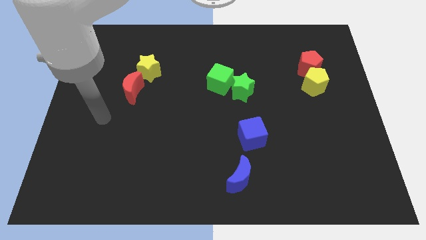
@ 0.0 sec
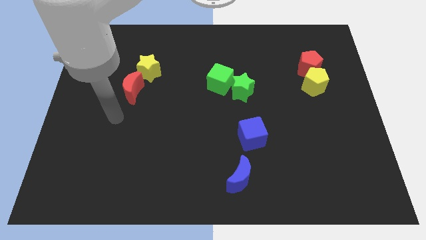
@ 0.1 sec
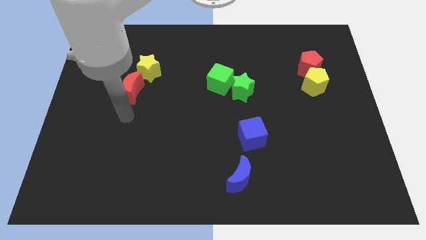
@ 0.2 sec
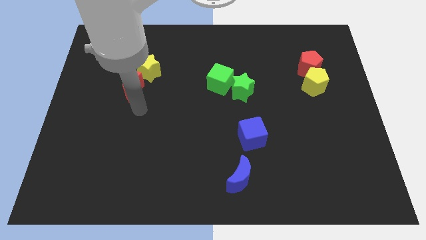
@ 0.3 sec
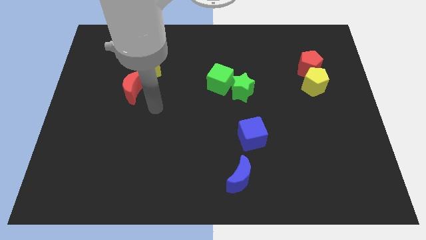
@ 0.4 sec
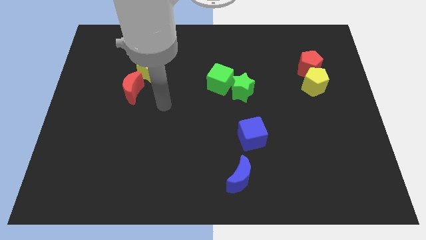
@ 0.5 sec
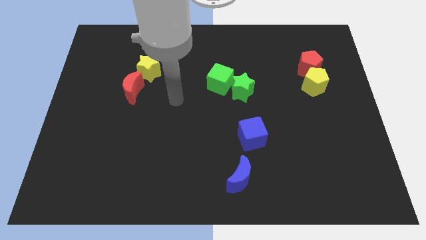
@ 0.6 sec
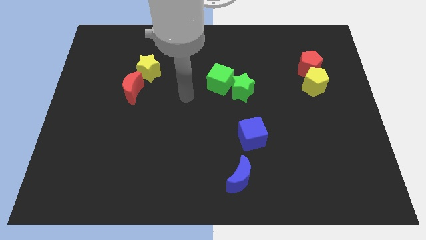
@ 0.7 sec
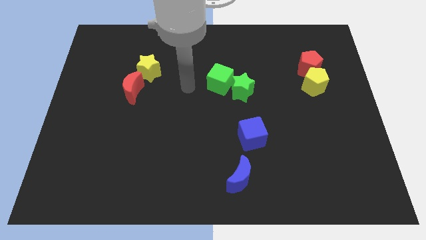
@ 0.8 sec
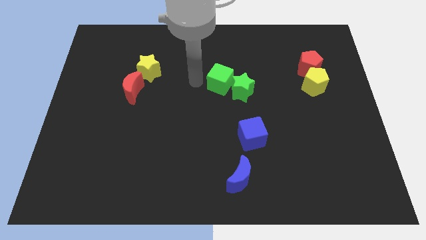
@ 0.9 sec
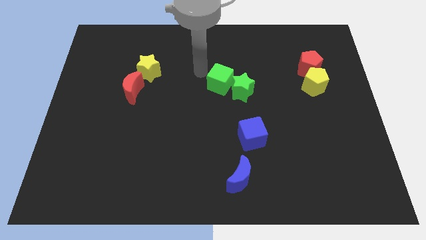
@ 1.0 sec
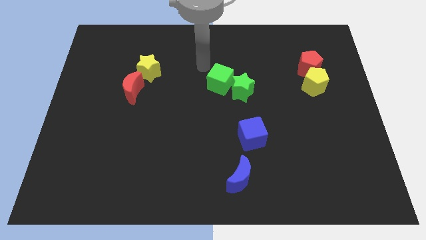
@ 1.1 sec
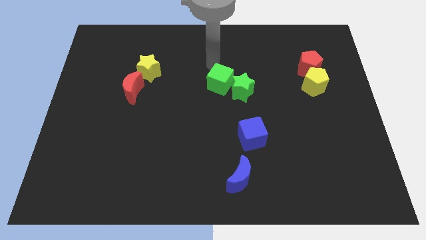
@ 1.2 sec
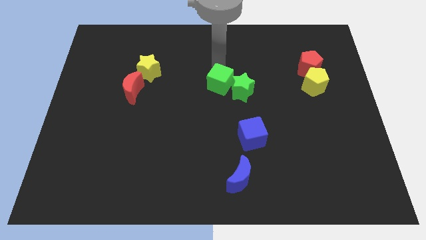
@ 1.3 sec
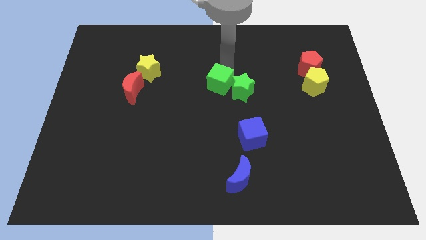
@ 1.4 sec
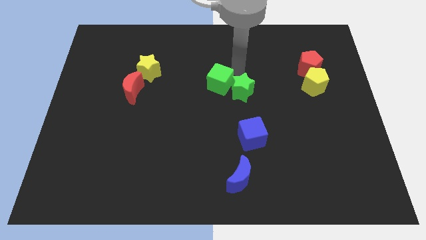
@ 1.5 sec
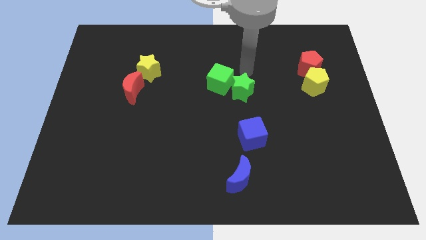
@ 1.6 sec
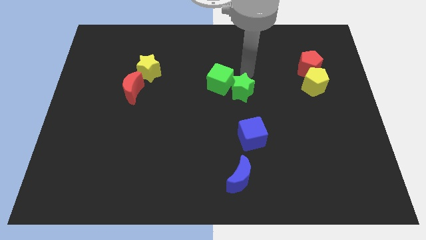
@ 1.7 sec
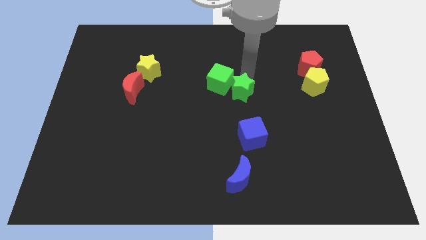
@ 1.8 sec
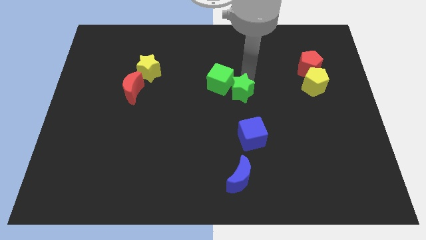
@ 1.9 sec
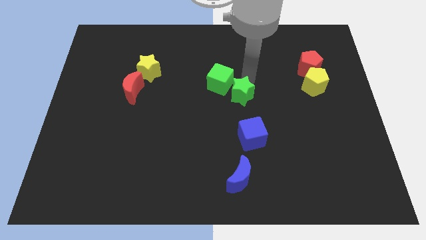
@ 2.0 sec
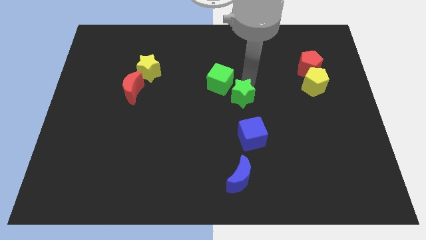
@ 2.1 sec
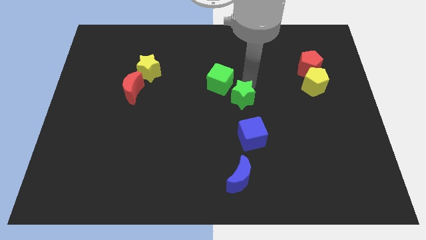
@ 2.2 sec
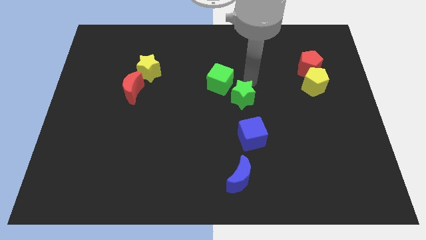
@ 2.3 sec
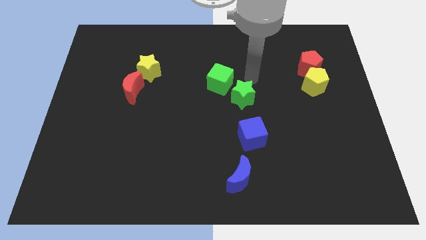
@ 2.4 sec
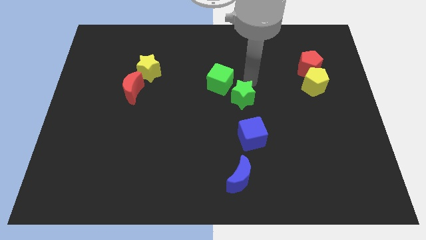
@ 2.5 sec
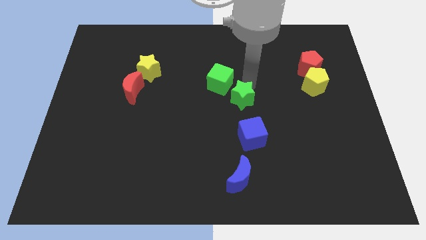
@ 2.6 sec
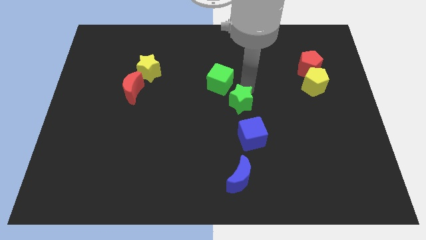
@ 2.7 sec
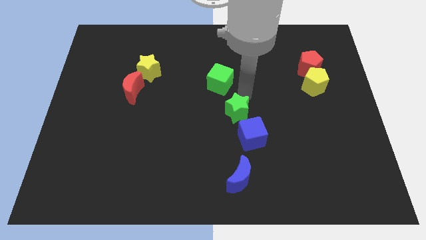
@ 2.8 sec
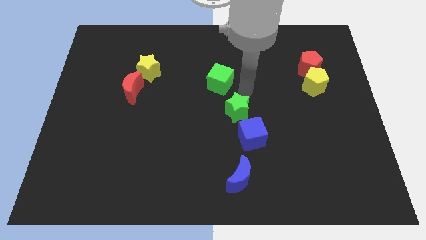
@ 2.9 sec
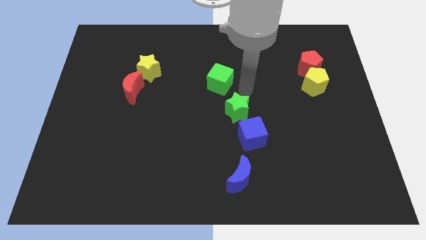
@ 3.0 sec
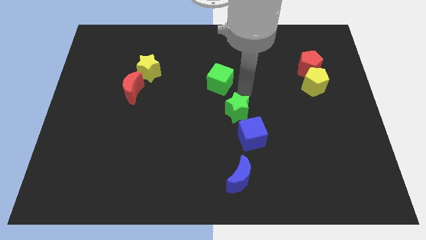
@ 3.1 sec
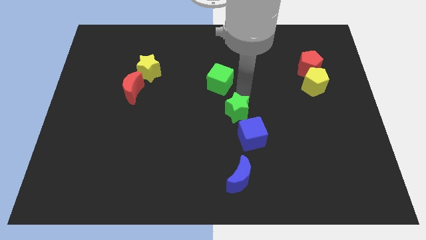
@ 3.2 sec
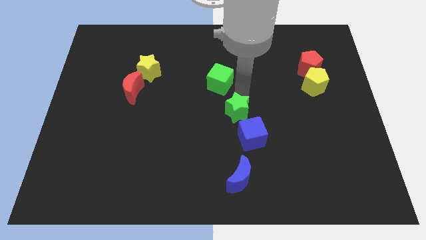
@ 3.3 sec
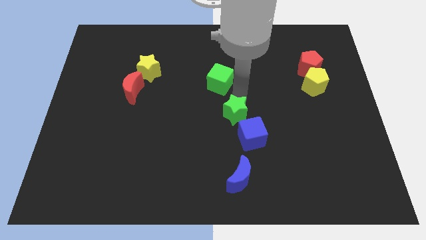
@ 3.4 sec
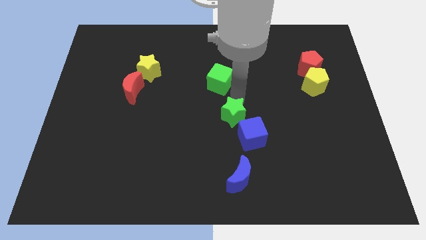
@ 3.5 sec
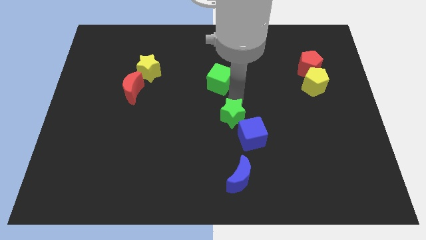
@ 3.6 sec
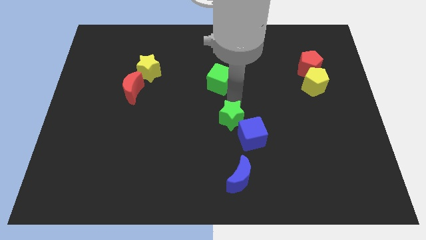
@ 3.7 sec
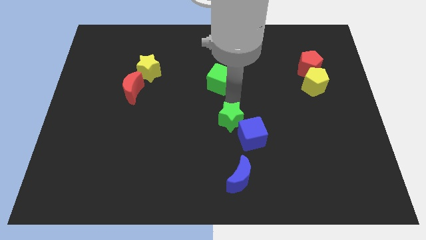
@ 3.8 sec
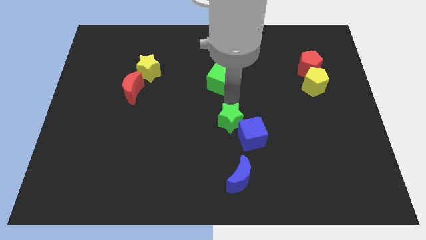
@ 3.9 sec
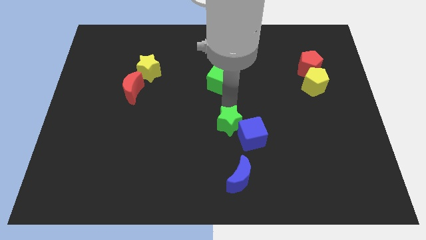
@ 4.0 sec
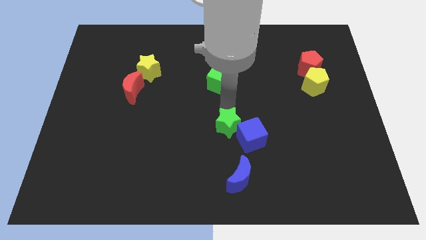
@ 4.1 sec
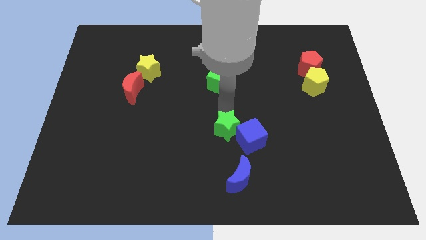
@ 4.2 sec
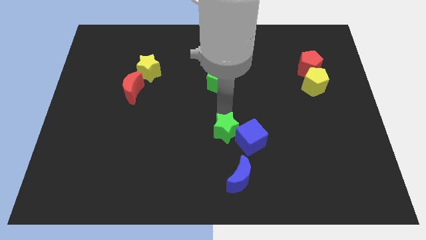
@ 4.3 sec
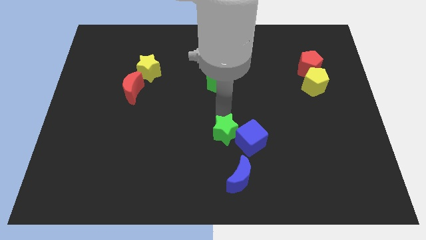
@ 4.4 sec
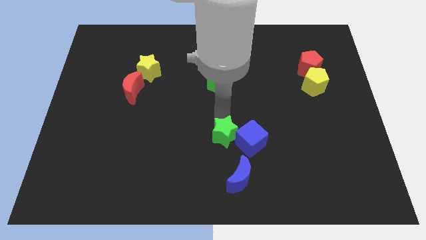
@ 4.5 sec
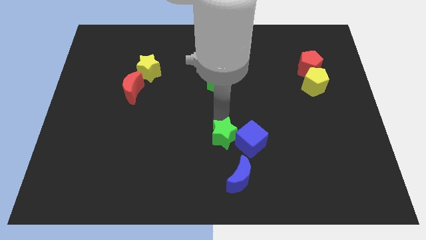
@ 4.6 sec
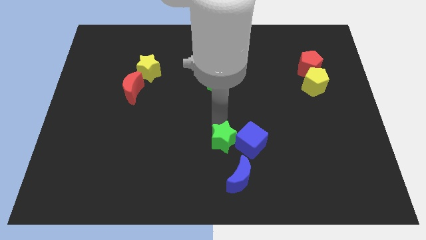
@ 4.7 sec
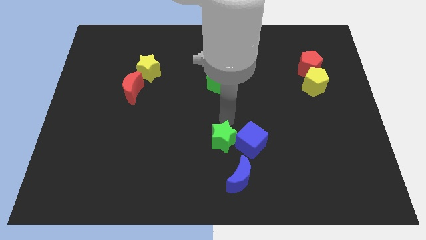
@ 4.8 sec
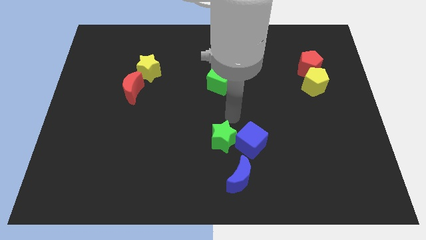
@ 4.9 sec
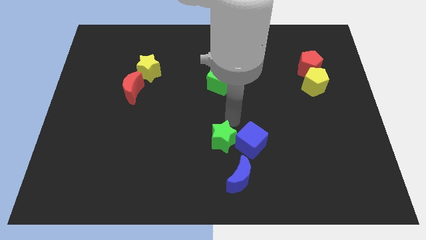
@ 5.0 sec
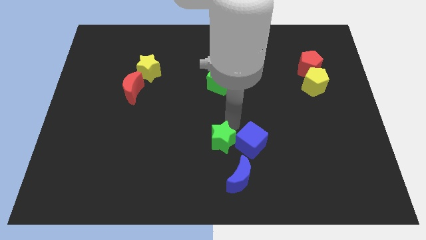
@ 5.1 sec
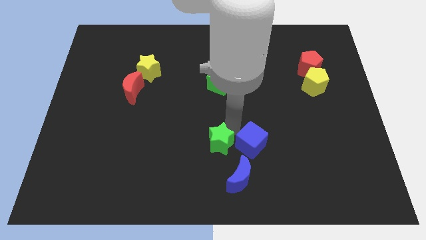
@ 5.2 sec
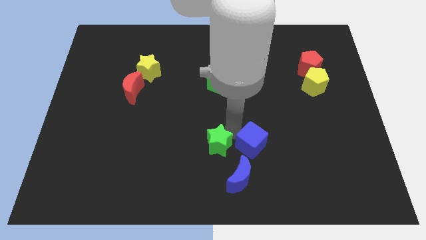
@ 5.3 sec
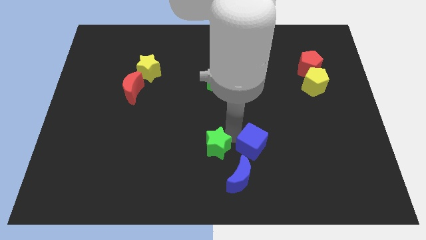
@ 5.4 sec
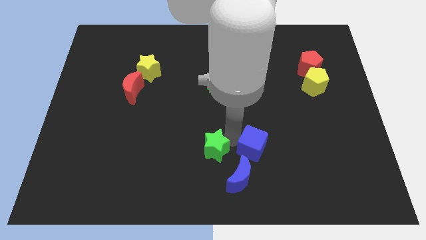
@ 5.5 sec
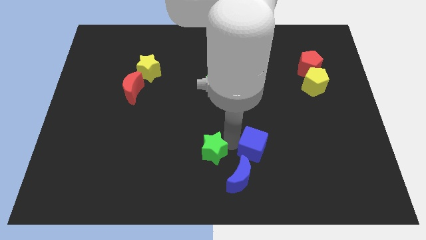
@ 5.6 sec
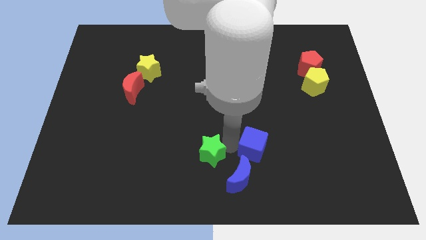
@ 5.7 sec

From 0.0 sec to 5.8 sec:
slide the green star to the bottom side

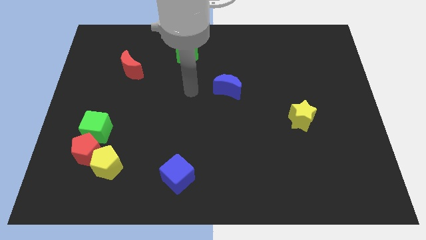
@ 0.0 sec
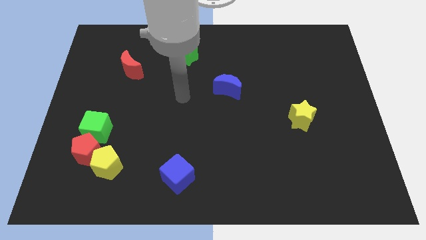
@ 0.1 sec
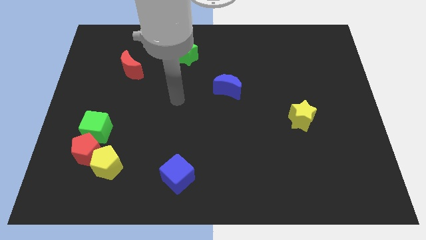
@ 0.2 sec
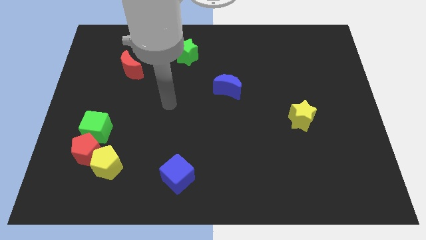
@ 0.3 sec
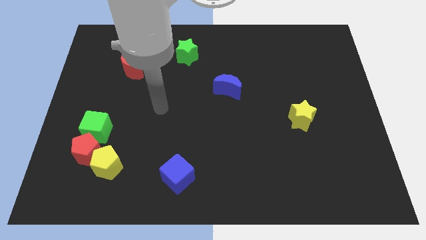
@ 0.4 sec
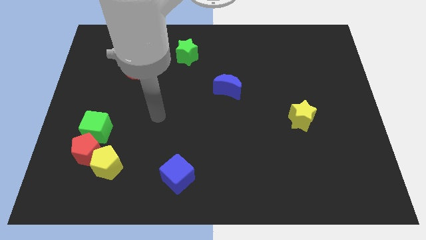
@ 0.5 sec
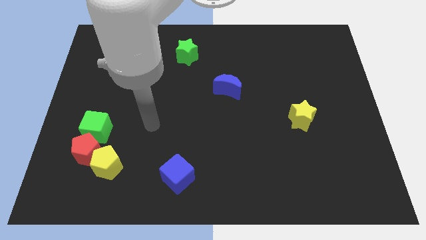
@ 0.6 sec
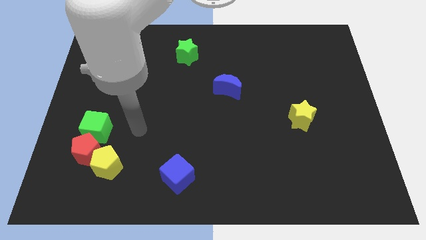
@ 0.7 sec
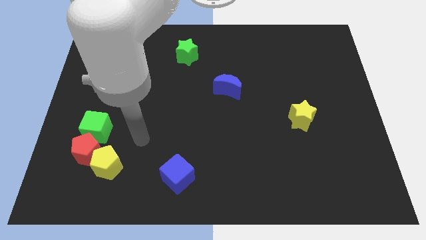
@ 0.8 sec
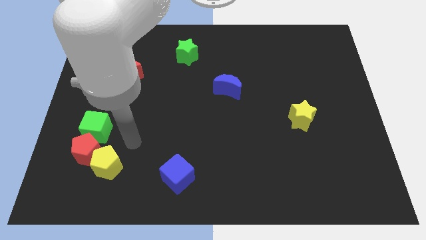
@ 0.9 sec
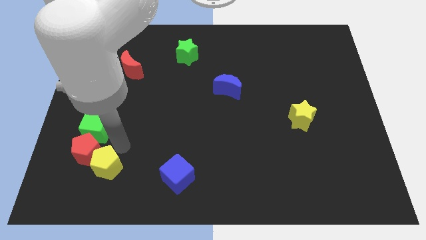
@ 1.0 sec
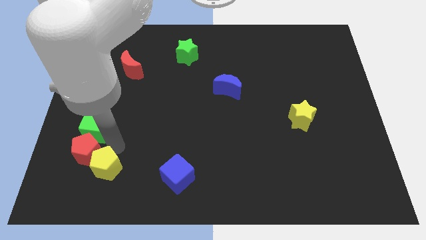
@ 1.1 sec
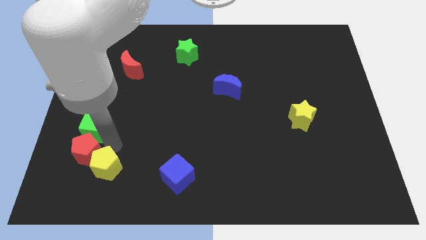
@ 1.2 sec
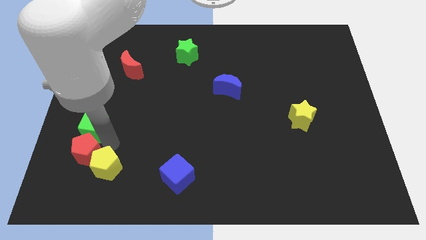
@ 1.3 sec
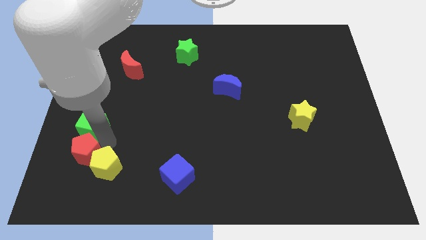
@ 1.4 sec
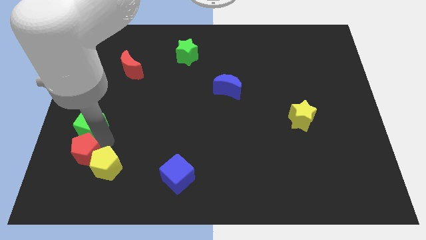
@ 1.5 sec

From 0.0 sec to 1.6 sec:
put the green cube to the left side
